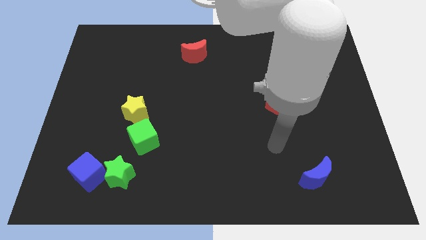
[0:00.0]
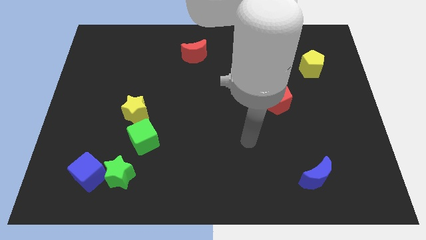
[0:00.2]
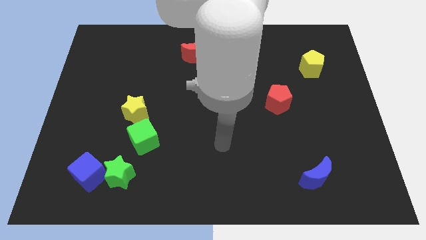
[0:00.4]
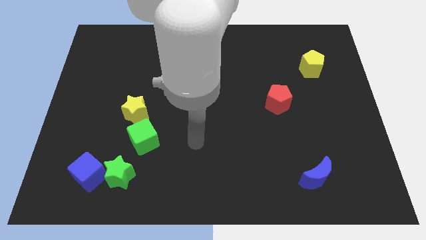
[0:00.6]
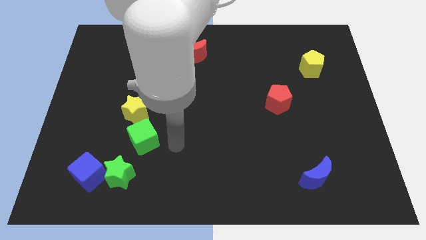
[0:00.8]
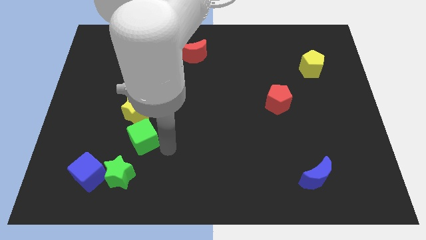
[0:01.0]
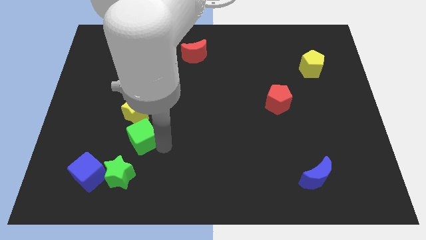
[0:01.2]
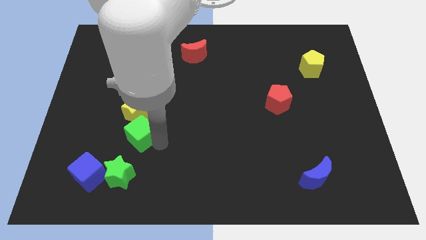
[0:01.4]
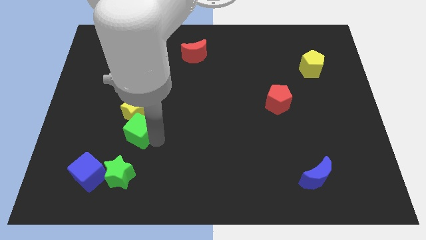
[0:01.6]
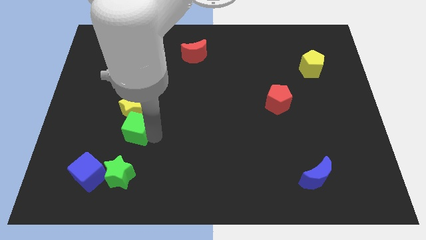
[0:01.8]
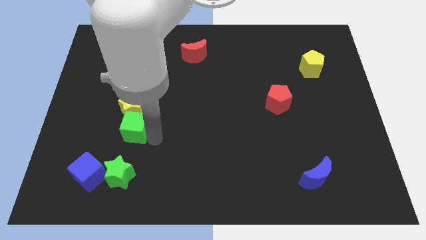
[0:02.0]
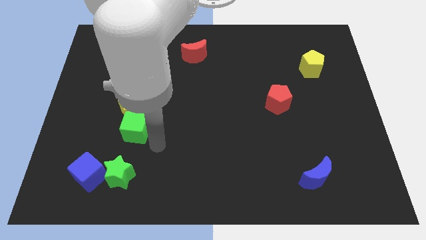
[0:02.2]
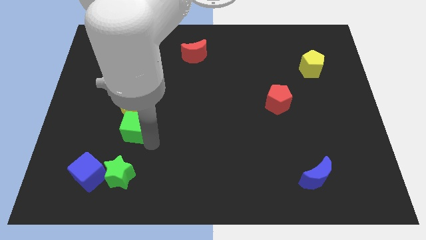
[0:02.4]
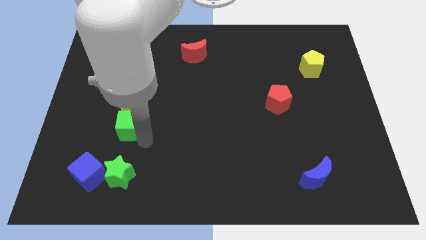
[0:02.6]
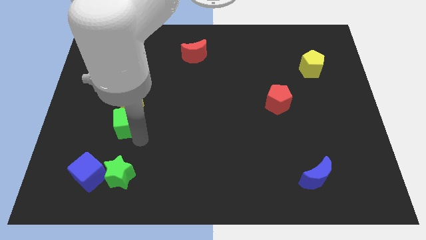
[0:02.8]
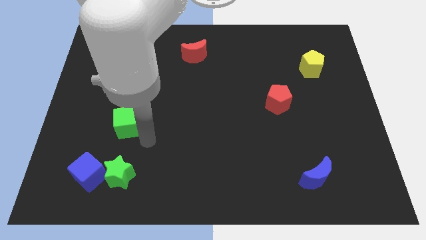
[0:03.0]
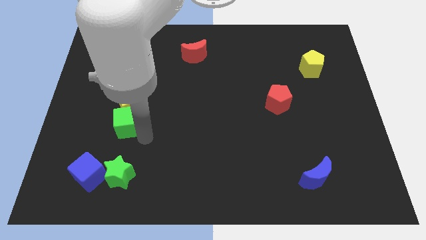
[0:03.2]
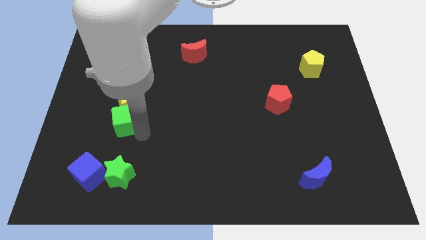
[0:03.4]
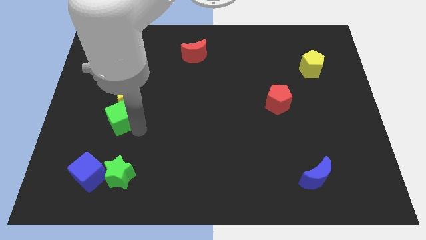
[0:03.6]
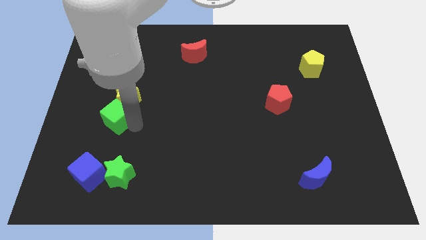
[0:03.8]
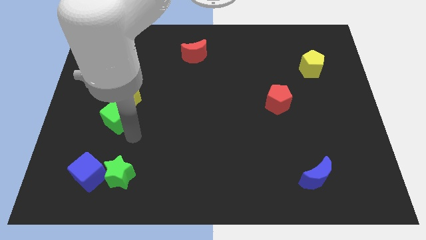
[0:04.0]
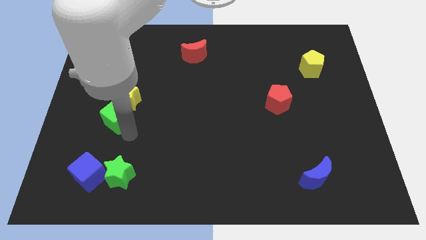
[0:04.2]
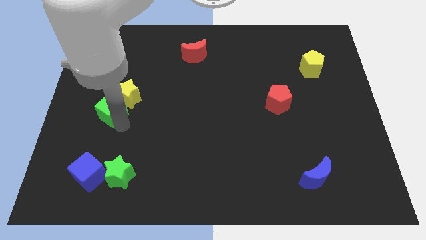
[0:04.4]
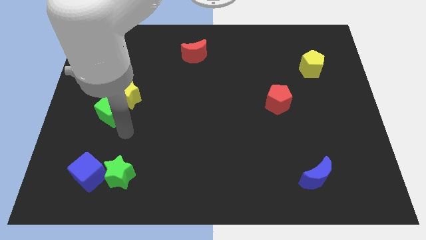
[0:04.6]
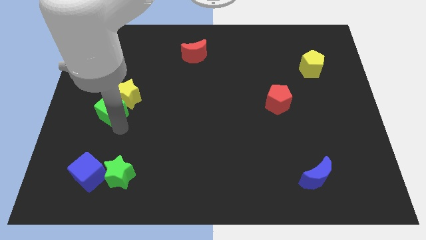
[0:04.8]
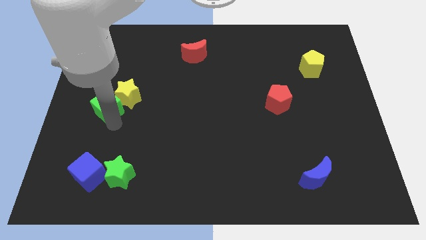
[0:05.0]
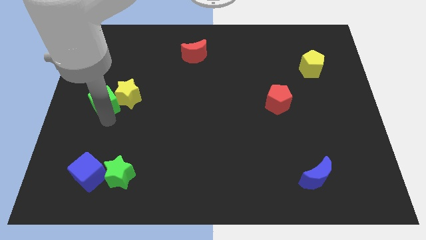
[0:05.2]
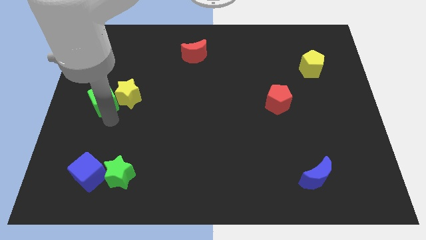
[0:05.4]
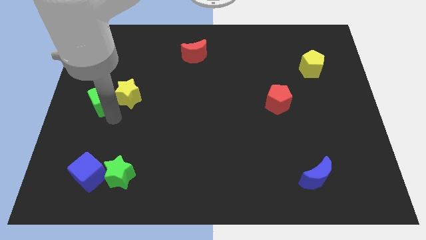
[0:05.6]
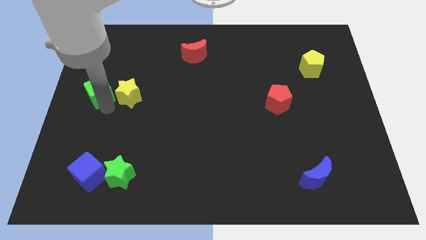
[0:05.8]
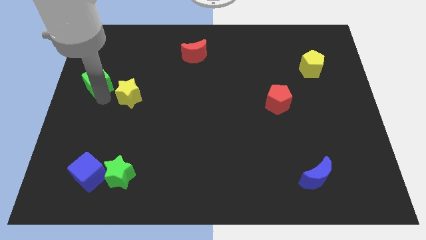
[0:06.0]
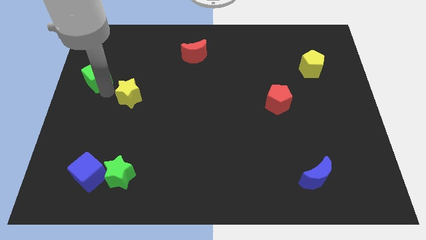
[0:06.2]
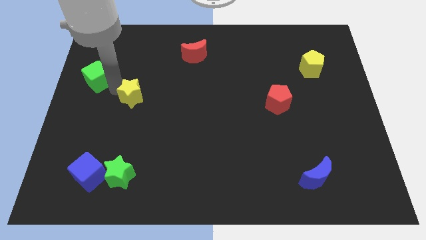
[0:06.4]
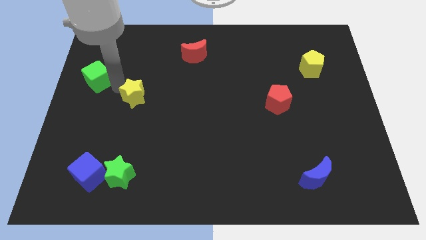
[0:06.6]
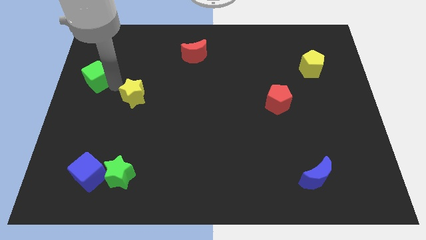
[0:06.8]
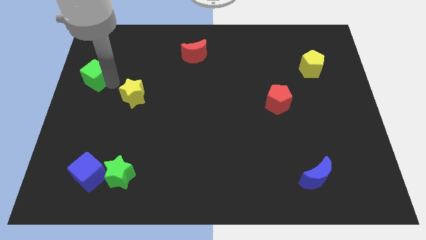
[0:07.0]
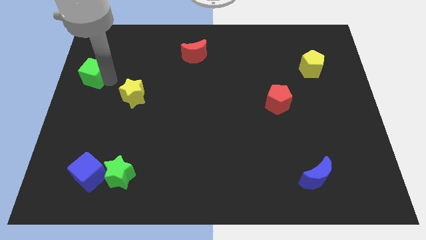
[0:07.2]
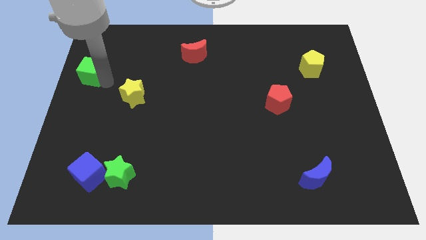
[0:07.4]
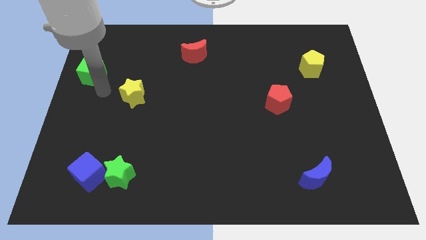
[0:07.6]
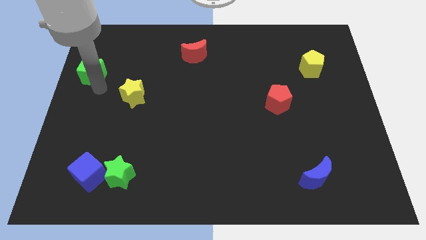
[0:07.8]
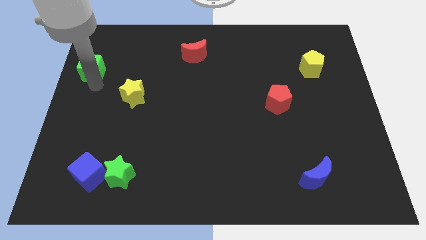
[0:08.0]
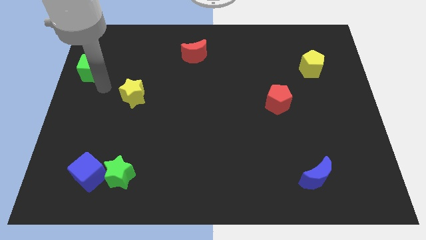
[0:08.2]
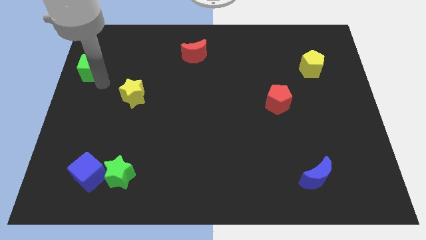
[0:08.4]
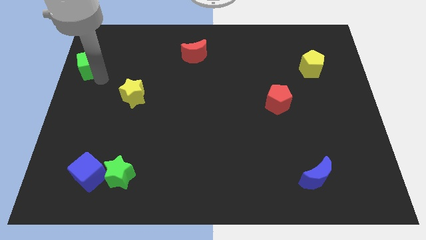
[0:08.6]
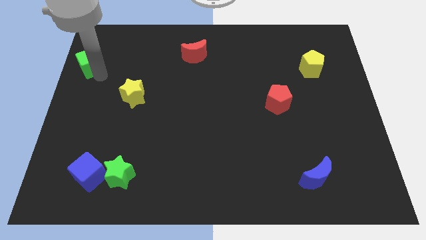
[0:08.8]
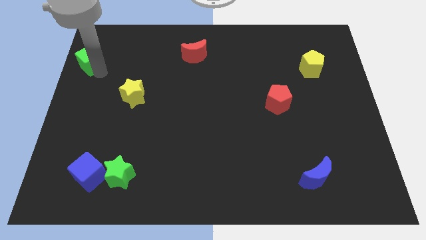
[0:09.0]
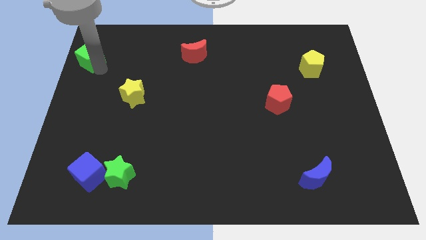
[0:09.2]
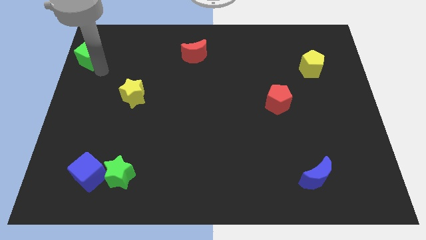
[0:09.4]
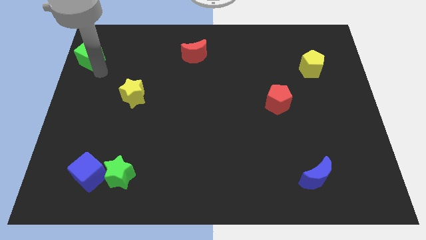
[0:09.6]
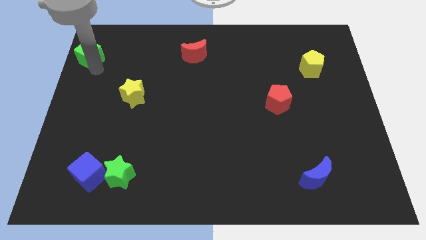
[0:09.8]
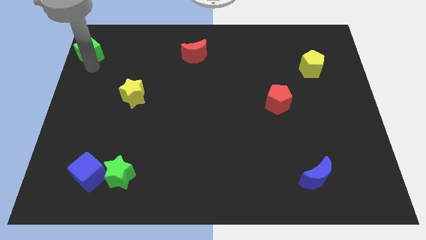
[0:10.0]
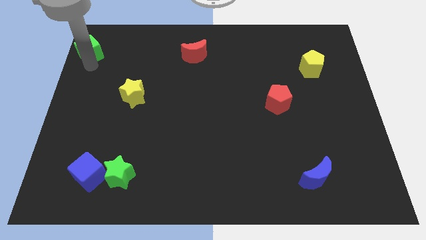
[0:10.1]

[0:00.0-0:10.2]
put the green cube to the top left of the board

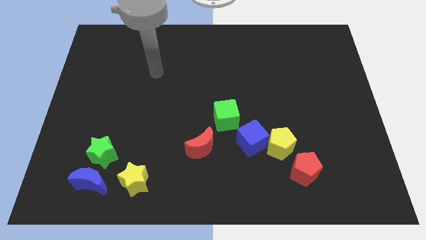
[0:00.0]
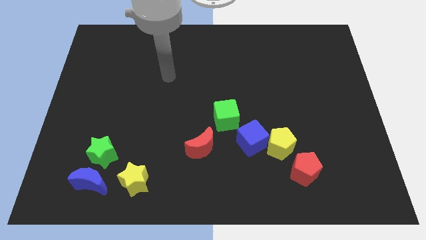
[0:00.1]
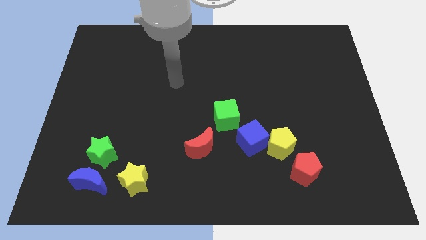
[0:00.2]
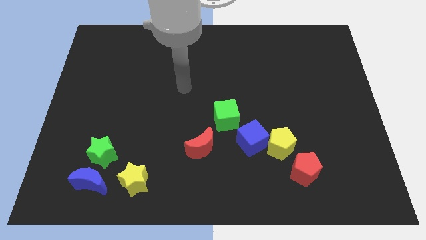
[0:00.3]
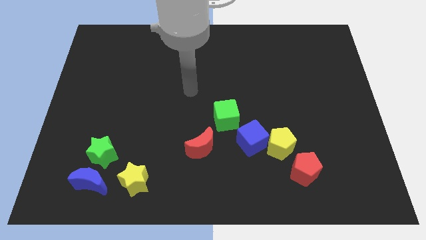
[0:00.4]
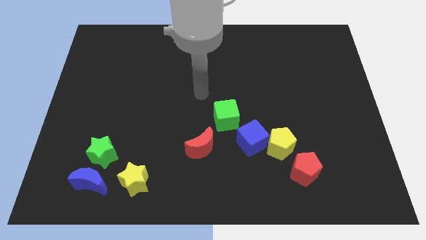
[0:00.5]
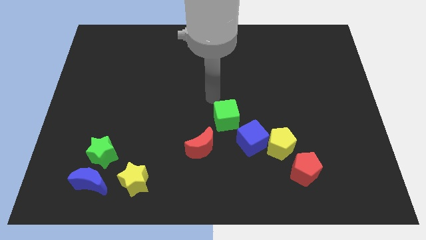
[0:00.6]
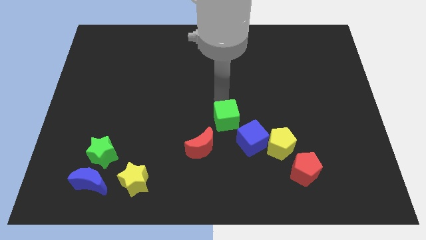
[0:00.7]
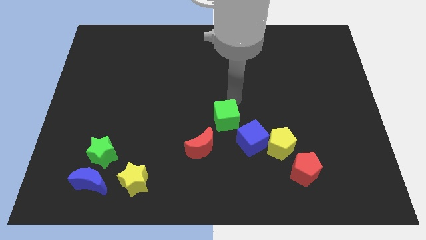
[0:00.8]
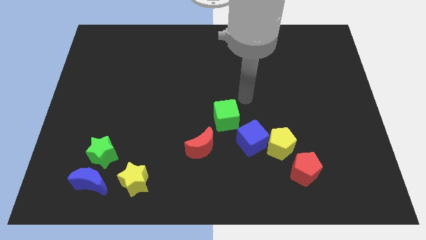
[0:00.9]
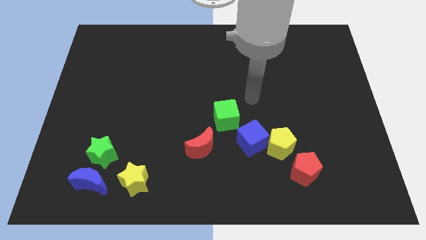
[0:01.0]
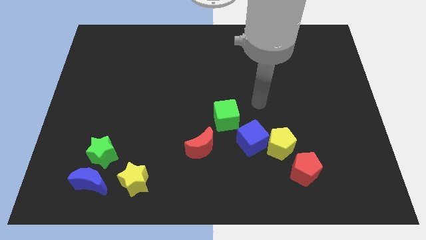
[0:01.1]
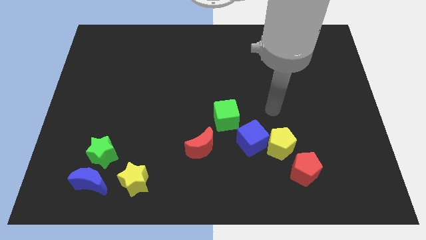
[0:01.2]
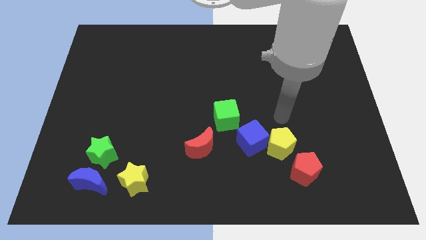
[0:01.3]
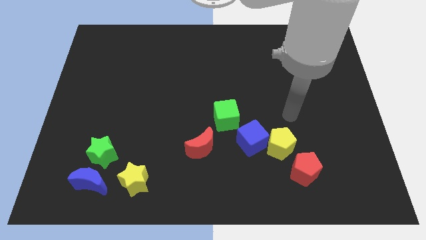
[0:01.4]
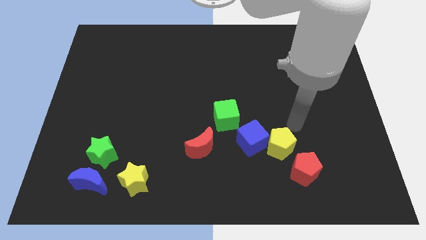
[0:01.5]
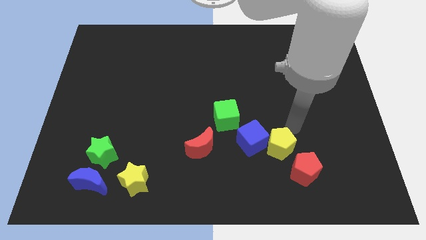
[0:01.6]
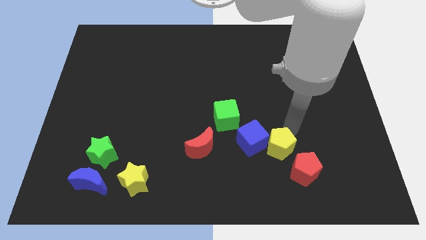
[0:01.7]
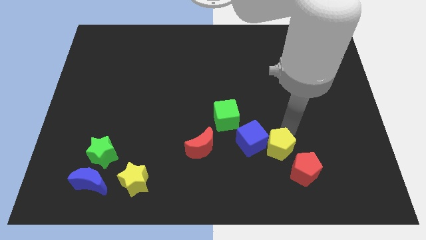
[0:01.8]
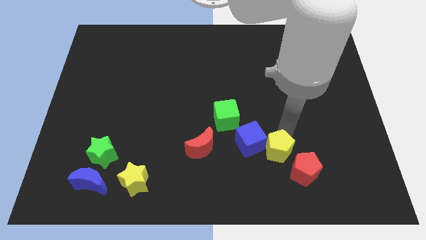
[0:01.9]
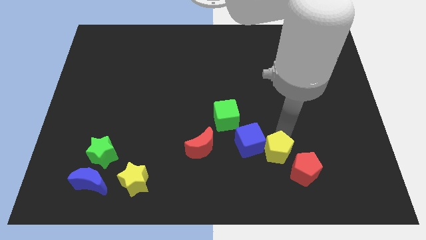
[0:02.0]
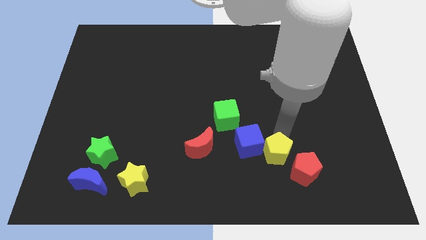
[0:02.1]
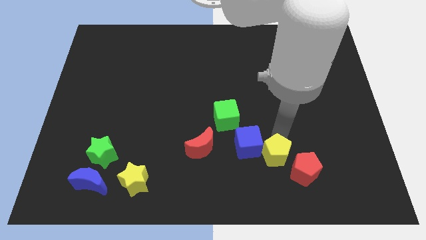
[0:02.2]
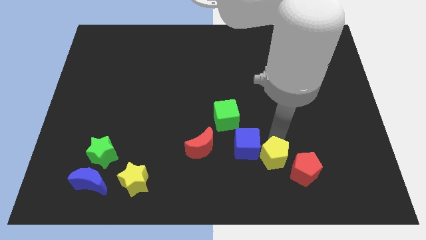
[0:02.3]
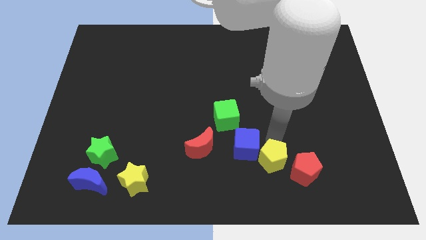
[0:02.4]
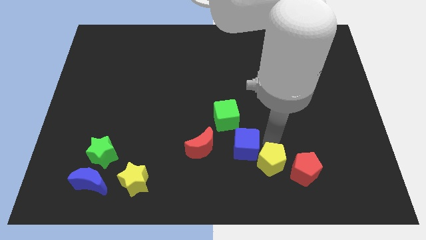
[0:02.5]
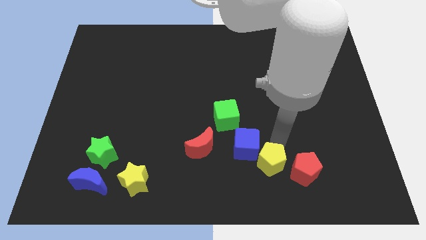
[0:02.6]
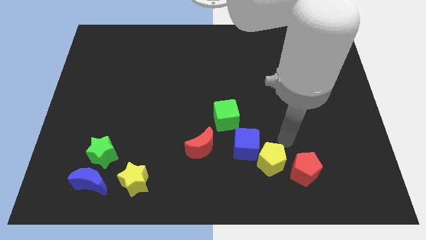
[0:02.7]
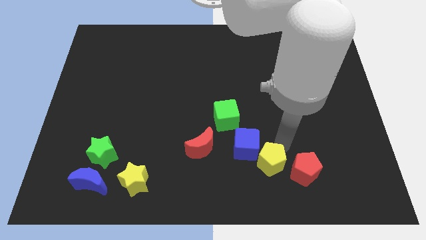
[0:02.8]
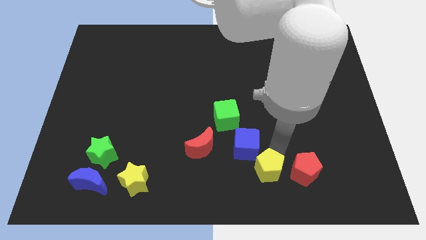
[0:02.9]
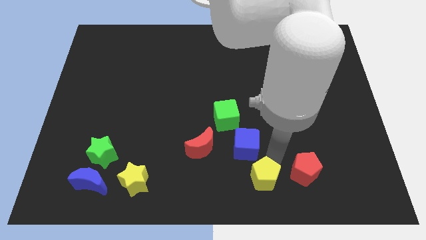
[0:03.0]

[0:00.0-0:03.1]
put the yellow pentagon to the bottom side
